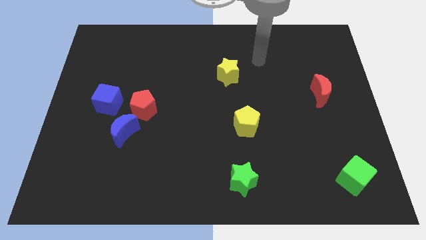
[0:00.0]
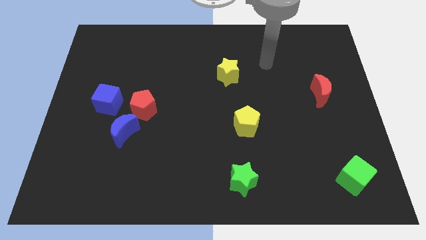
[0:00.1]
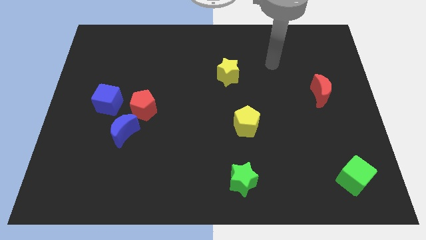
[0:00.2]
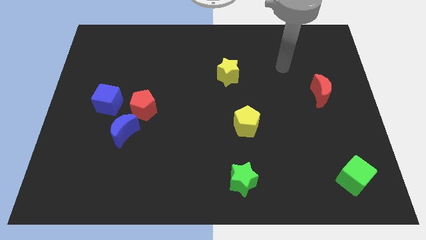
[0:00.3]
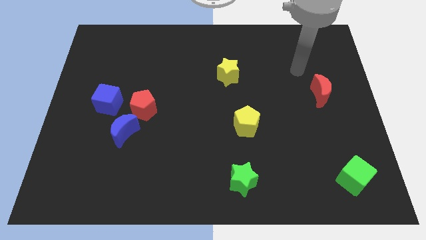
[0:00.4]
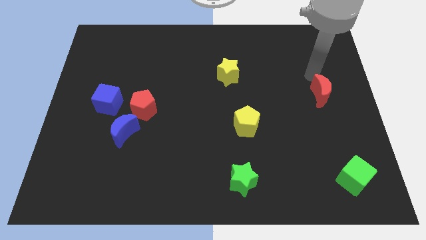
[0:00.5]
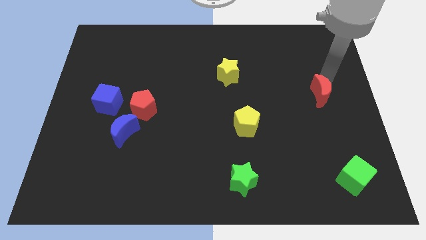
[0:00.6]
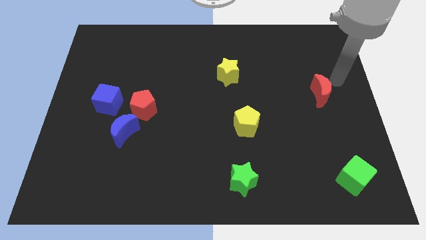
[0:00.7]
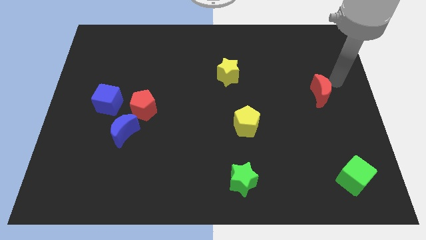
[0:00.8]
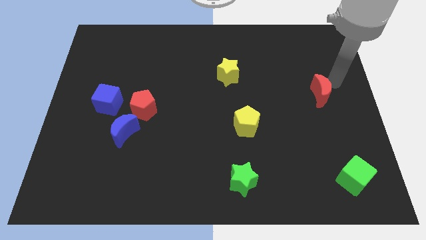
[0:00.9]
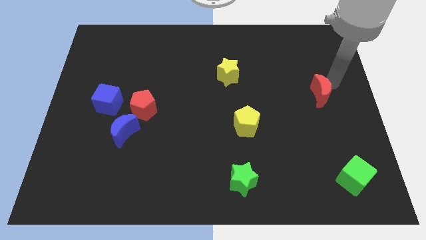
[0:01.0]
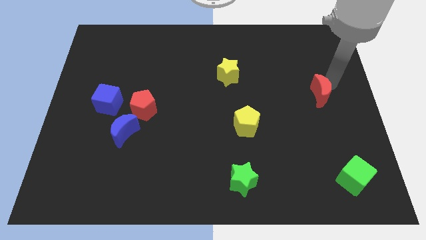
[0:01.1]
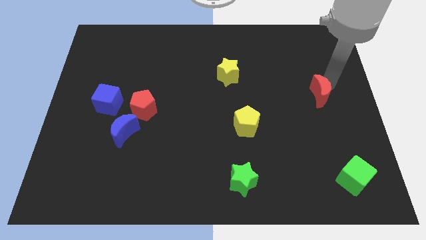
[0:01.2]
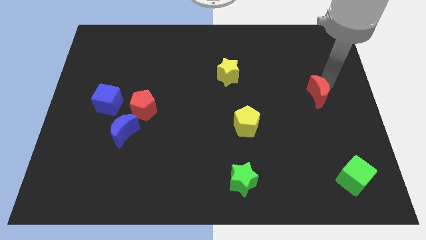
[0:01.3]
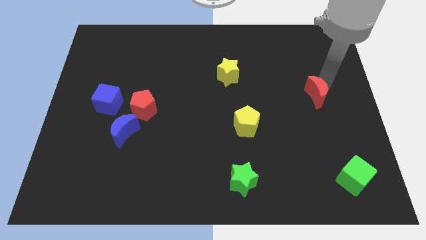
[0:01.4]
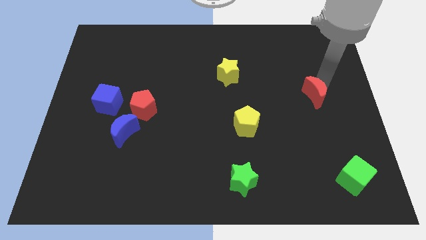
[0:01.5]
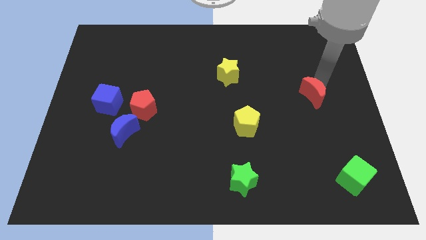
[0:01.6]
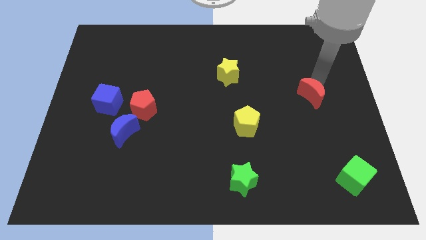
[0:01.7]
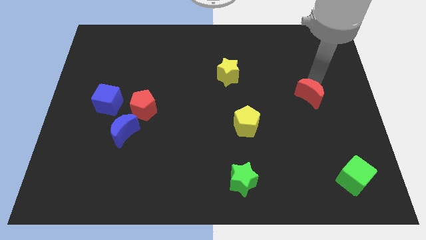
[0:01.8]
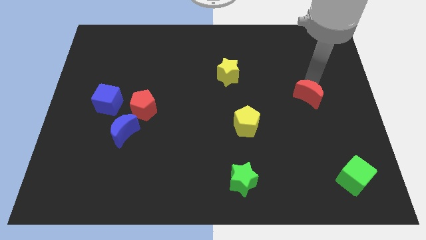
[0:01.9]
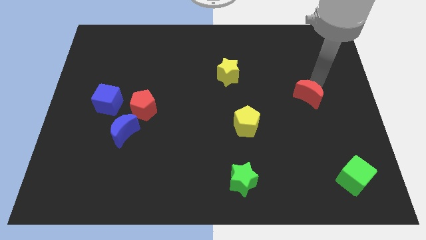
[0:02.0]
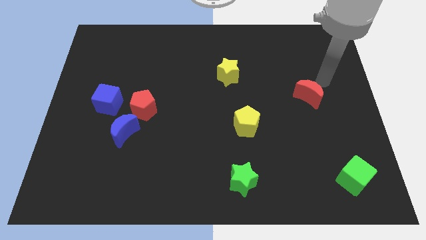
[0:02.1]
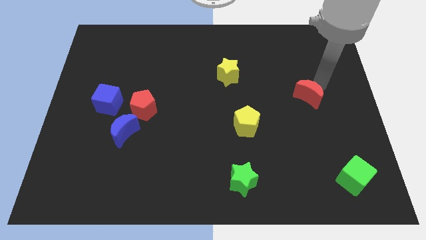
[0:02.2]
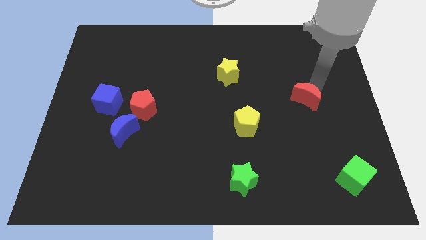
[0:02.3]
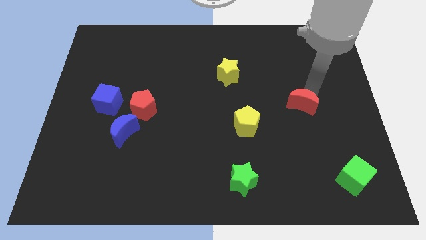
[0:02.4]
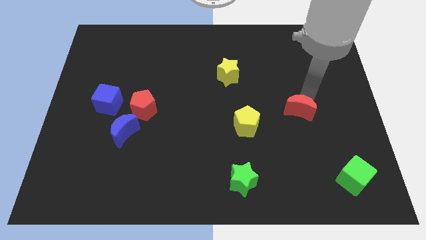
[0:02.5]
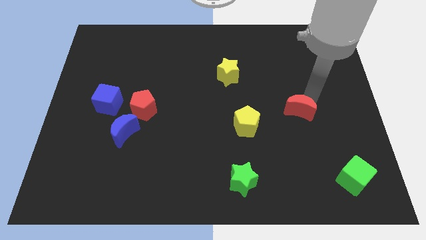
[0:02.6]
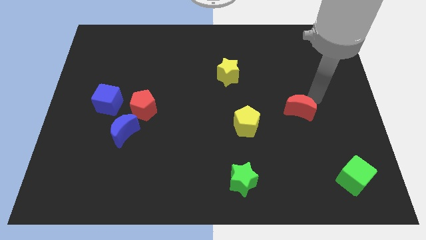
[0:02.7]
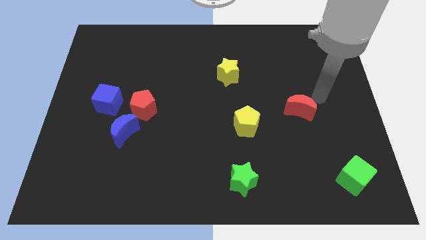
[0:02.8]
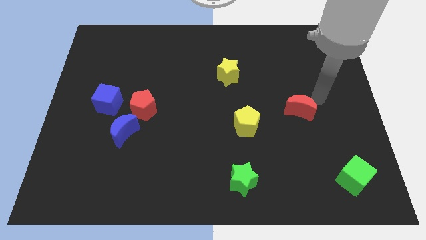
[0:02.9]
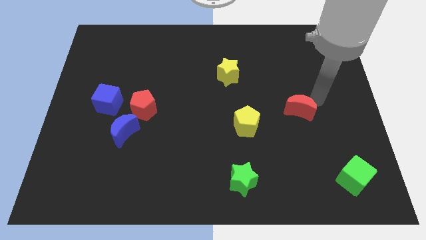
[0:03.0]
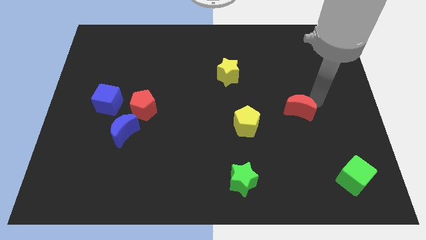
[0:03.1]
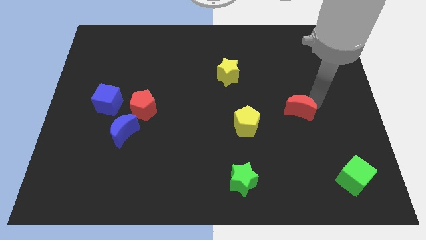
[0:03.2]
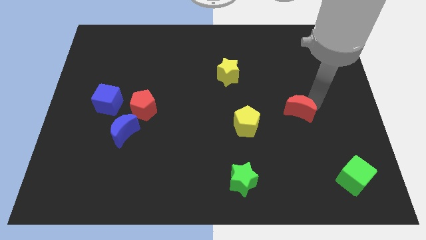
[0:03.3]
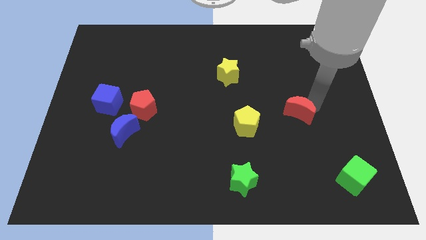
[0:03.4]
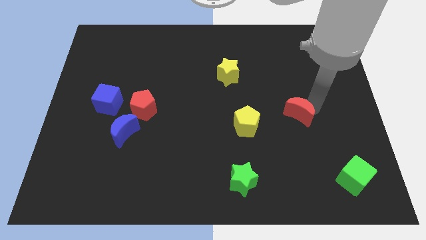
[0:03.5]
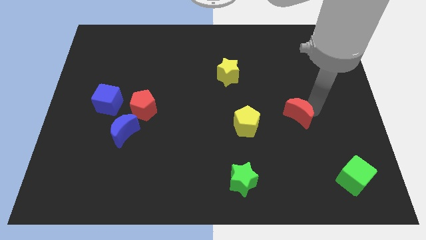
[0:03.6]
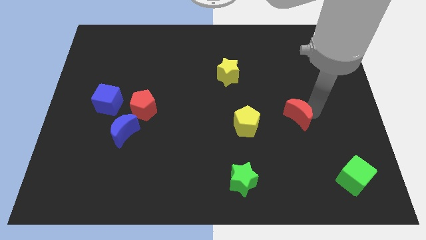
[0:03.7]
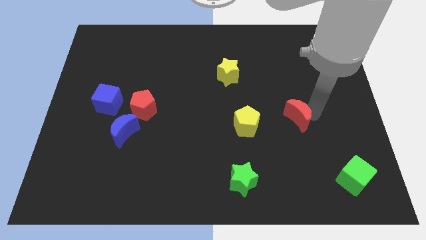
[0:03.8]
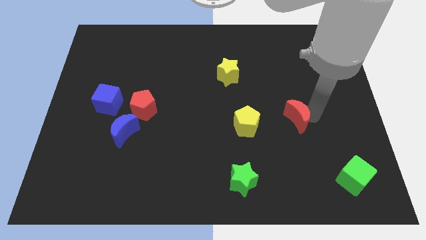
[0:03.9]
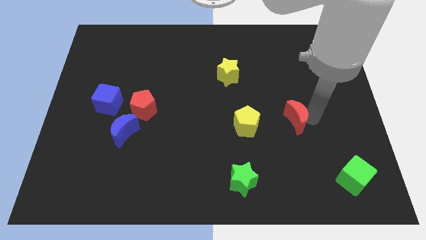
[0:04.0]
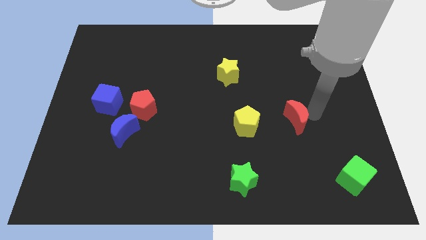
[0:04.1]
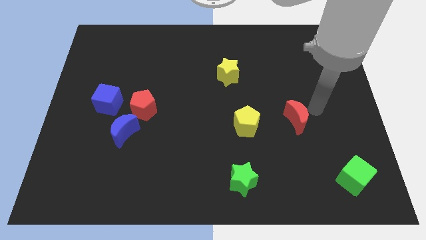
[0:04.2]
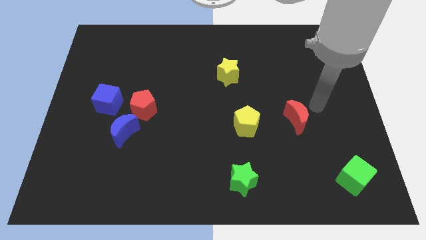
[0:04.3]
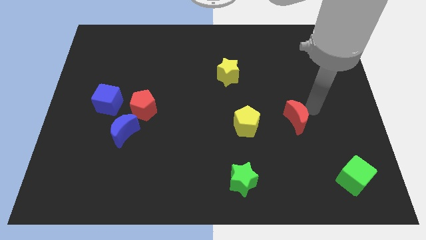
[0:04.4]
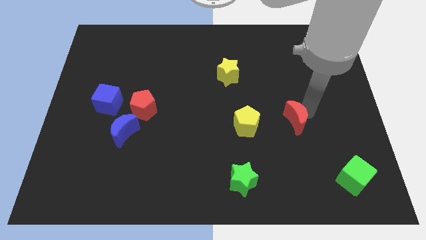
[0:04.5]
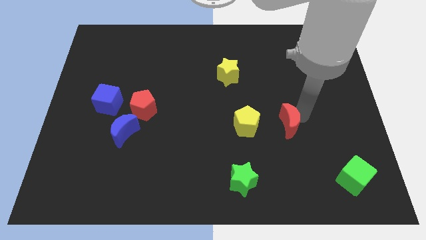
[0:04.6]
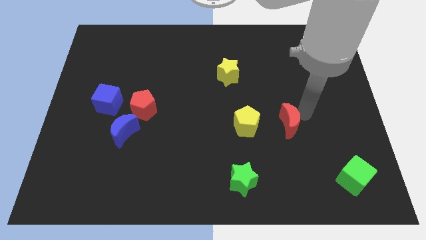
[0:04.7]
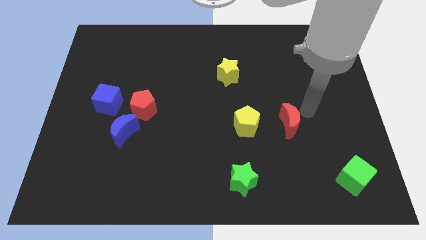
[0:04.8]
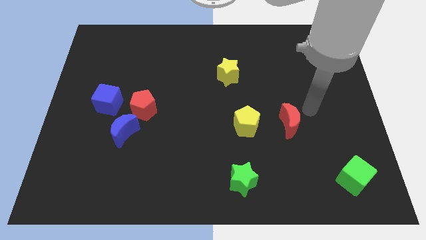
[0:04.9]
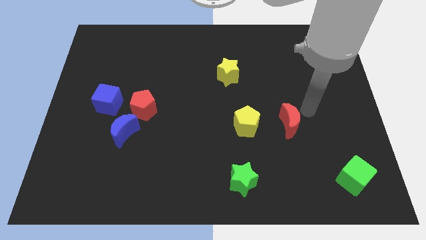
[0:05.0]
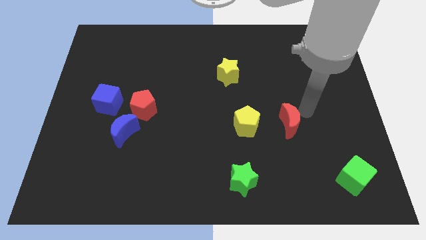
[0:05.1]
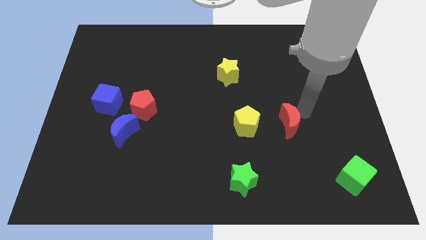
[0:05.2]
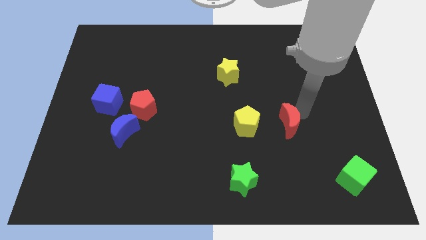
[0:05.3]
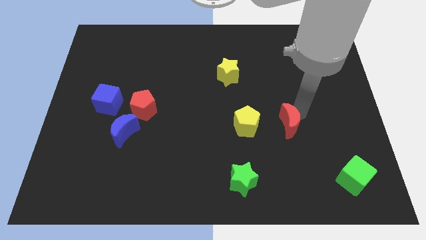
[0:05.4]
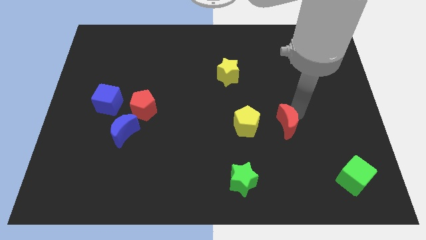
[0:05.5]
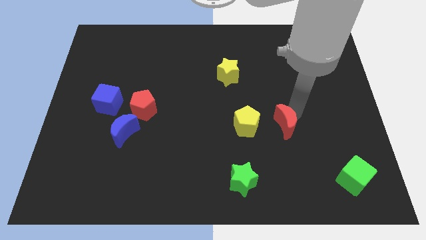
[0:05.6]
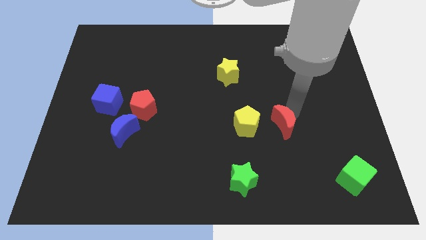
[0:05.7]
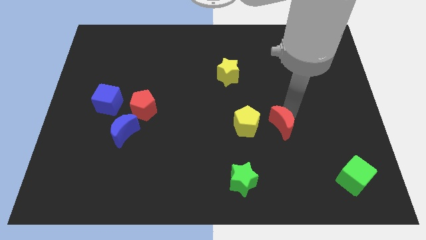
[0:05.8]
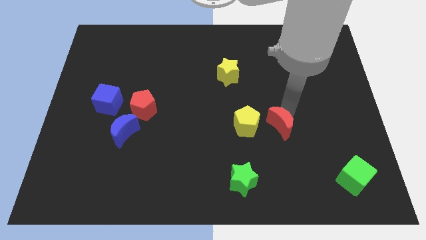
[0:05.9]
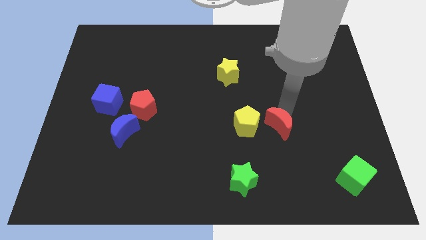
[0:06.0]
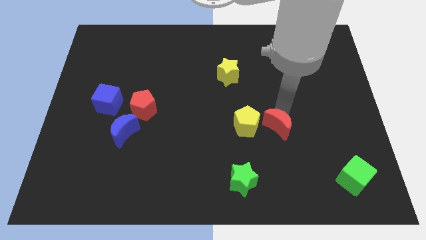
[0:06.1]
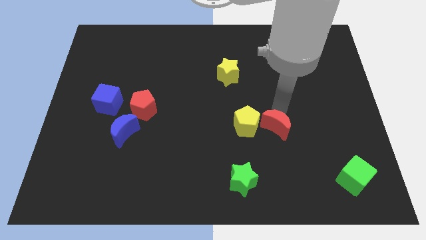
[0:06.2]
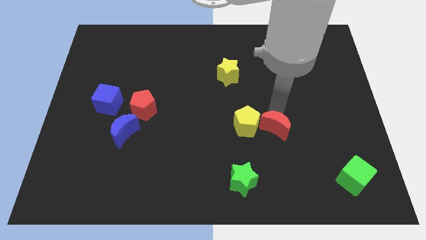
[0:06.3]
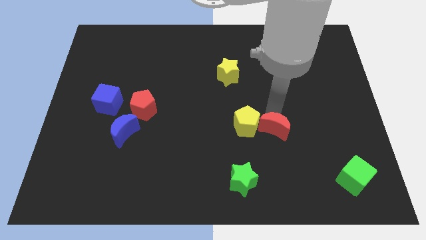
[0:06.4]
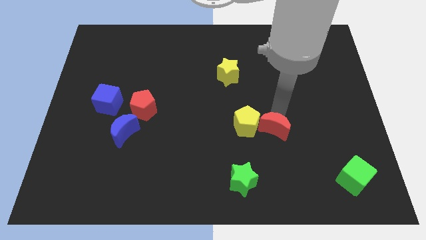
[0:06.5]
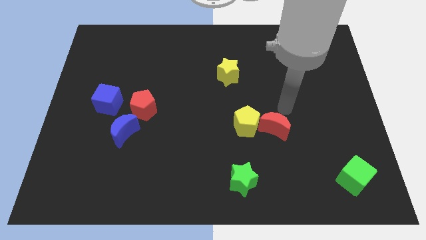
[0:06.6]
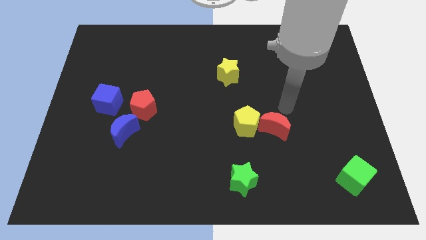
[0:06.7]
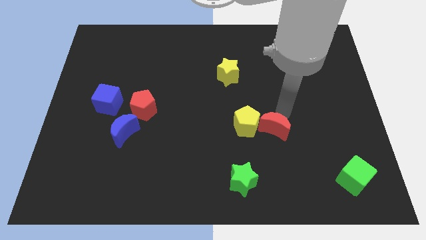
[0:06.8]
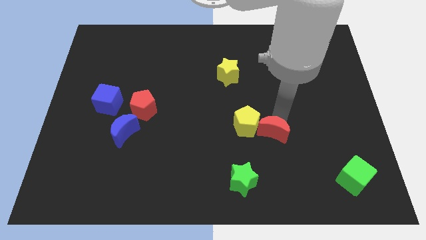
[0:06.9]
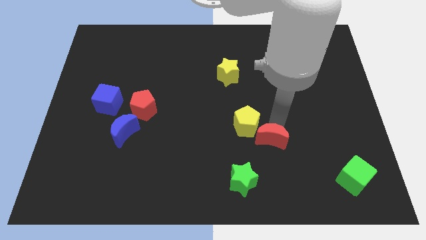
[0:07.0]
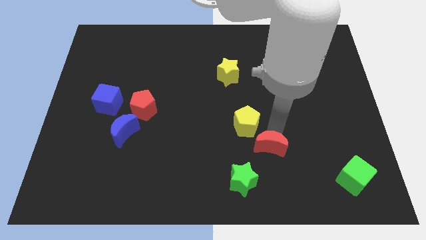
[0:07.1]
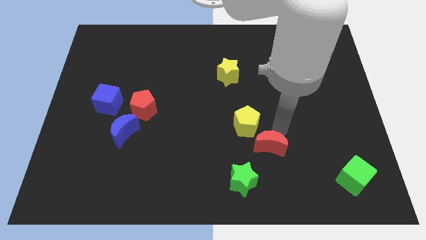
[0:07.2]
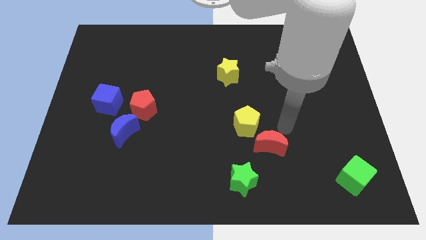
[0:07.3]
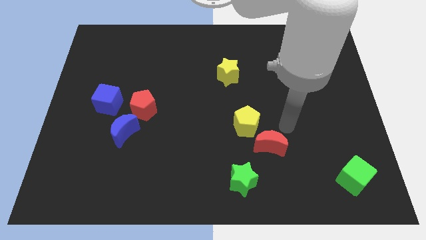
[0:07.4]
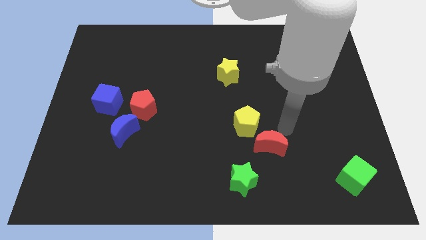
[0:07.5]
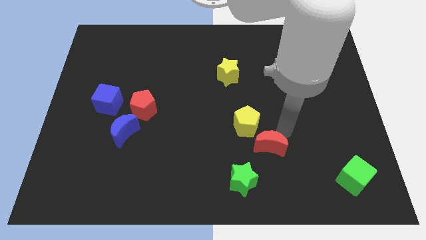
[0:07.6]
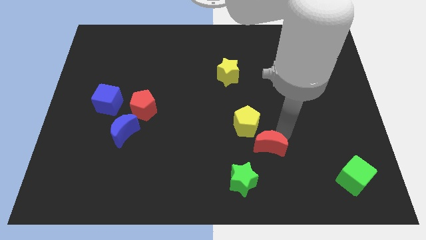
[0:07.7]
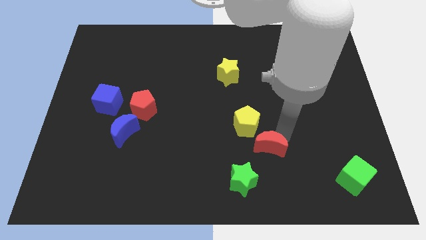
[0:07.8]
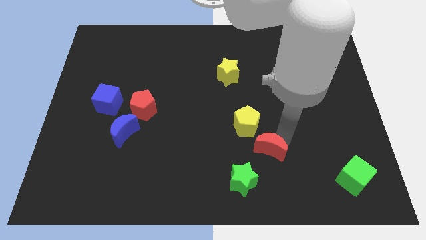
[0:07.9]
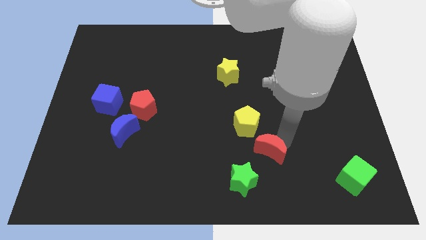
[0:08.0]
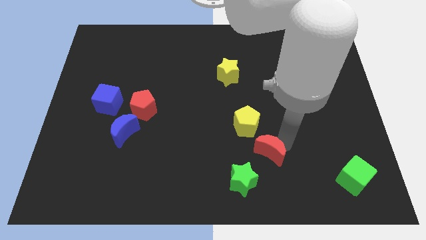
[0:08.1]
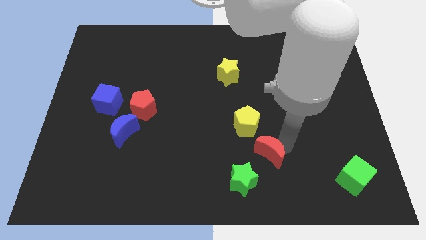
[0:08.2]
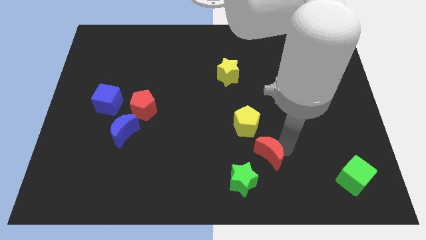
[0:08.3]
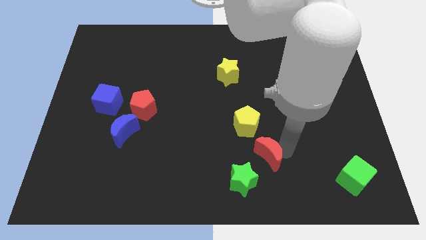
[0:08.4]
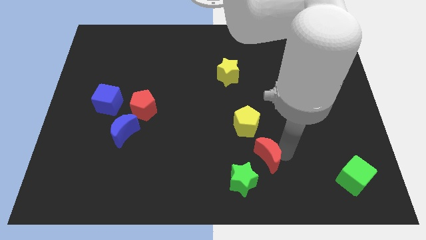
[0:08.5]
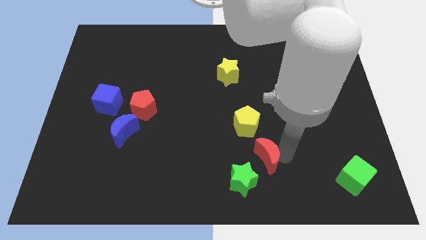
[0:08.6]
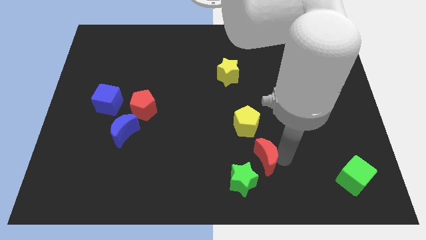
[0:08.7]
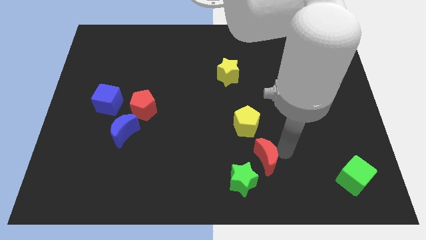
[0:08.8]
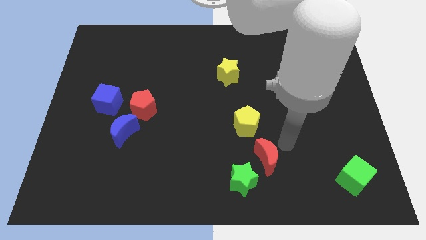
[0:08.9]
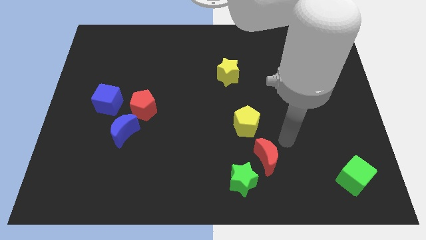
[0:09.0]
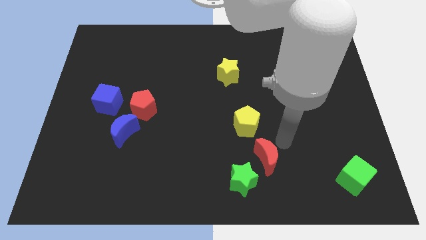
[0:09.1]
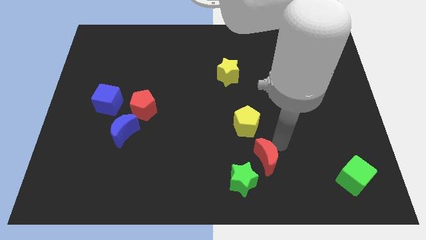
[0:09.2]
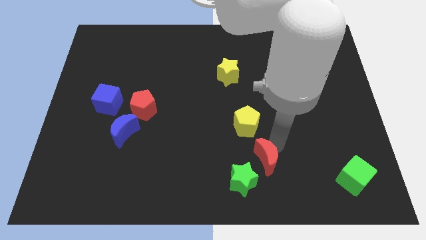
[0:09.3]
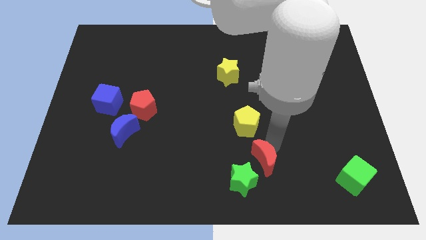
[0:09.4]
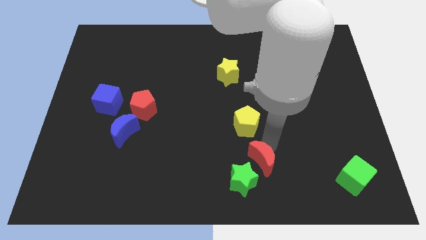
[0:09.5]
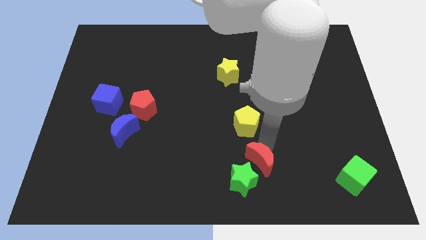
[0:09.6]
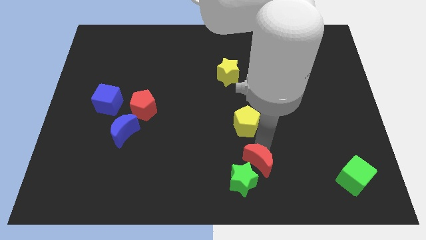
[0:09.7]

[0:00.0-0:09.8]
move the red moon close to the green star
